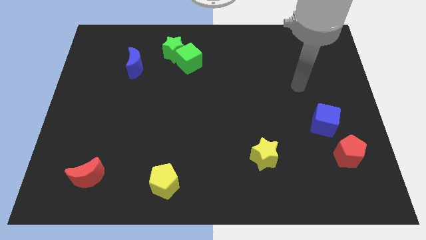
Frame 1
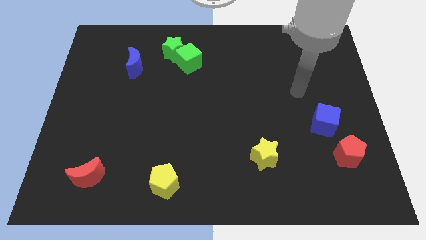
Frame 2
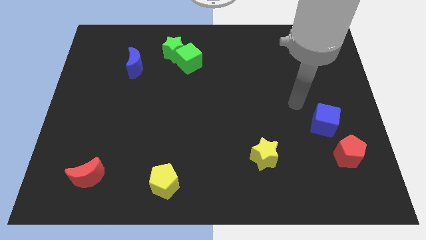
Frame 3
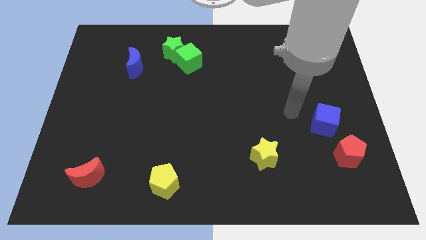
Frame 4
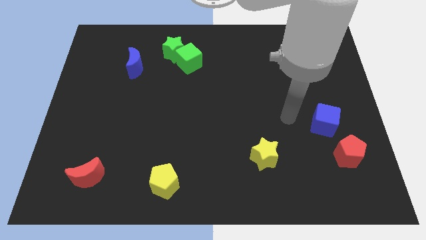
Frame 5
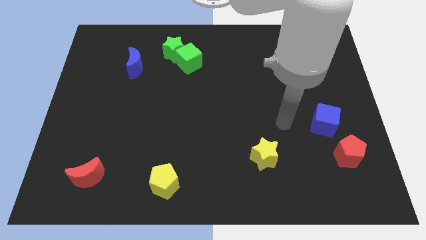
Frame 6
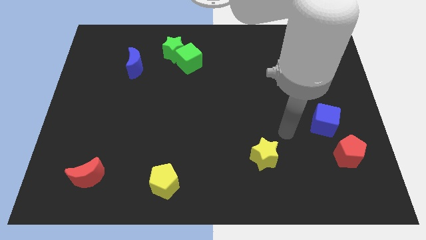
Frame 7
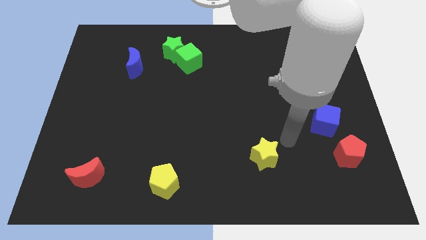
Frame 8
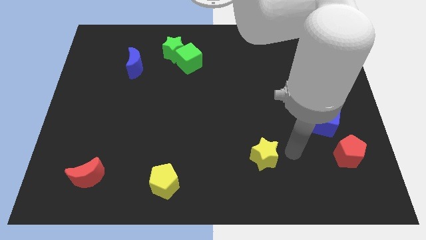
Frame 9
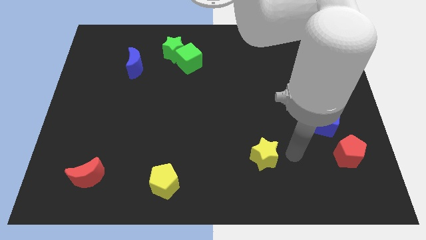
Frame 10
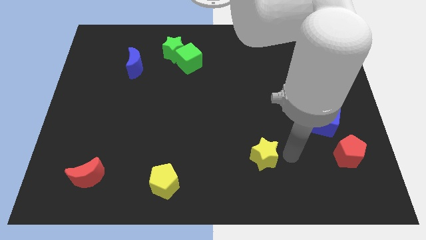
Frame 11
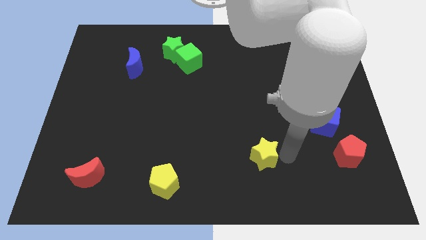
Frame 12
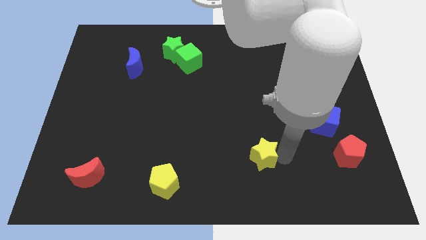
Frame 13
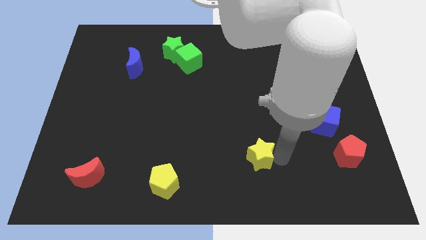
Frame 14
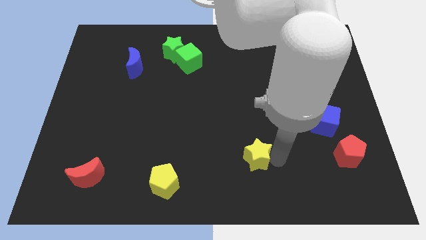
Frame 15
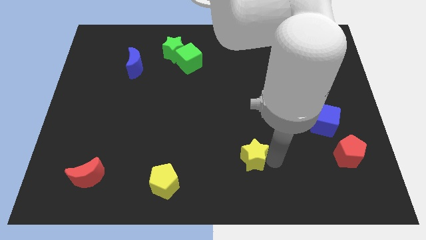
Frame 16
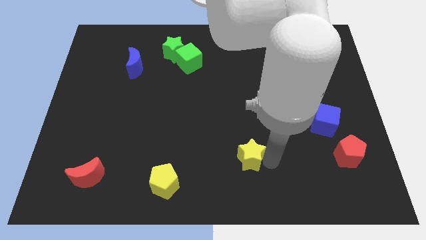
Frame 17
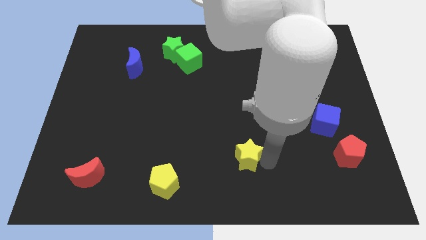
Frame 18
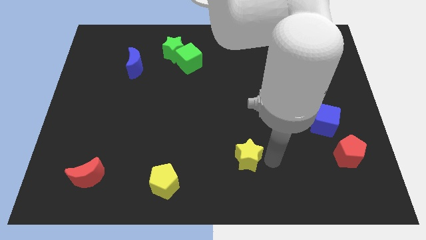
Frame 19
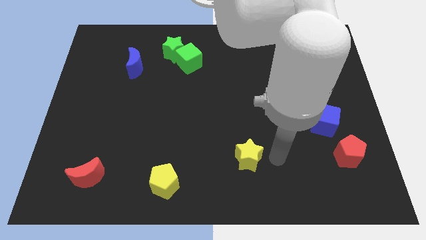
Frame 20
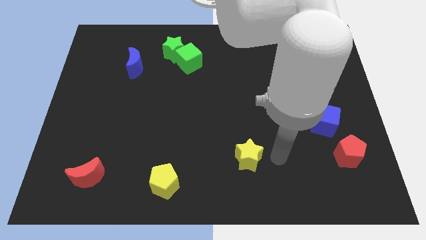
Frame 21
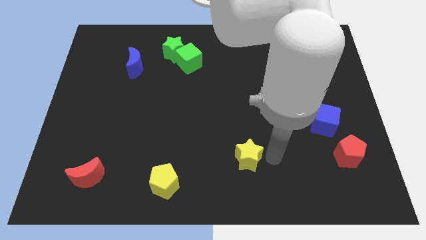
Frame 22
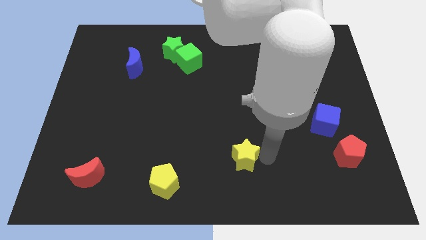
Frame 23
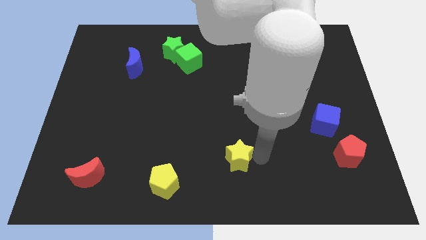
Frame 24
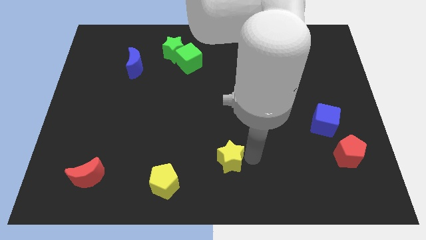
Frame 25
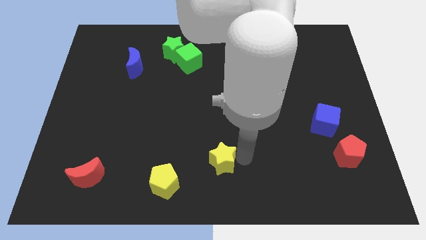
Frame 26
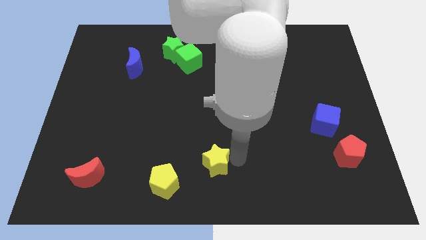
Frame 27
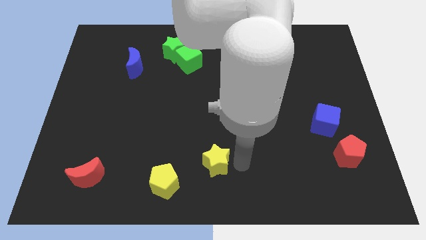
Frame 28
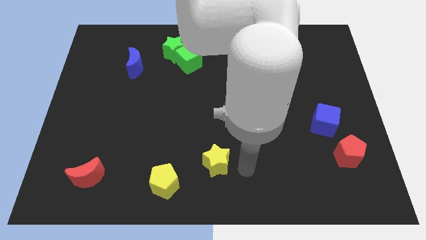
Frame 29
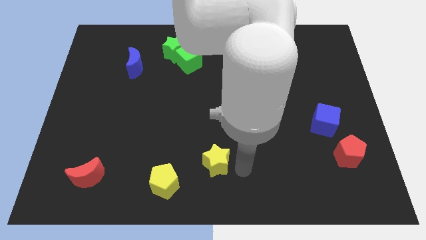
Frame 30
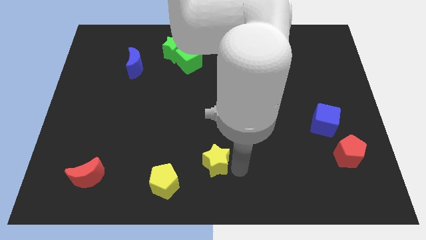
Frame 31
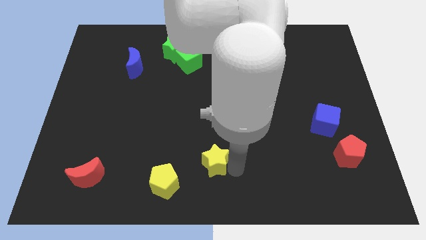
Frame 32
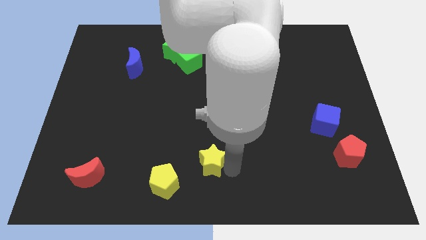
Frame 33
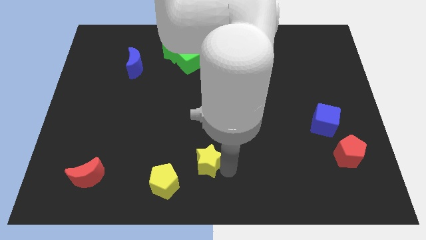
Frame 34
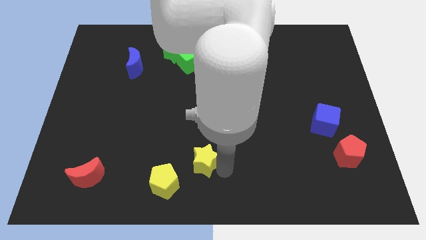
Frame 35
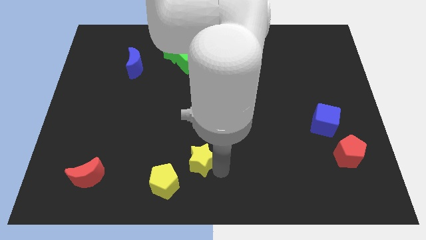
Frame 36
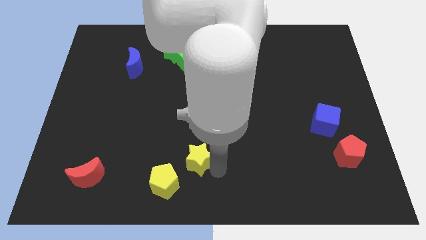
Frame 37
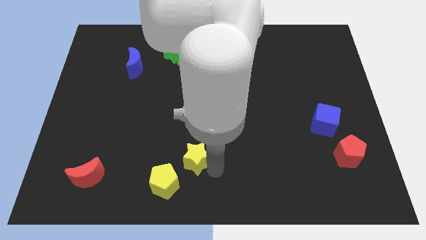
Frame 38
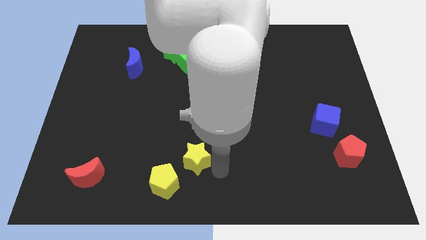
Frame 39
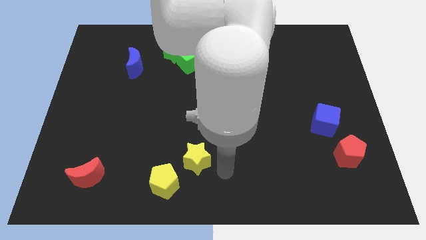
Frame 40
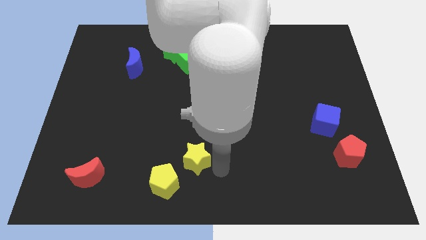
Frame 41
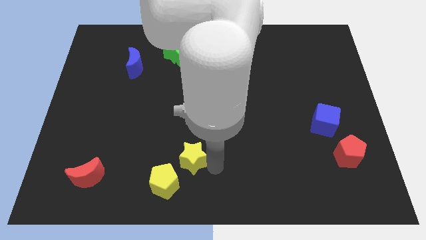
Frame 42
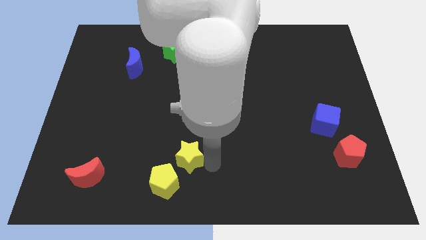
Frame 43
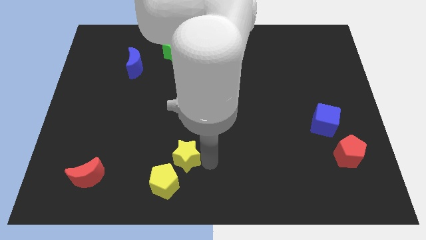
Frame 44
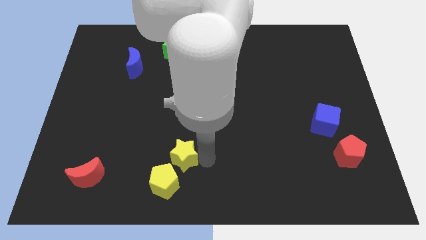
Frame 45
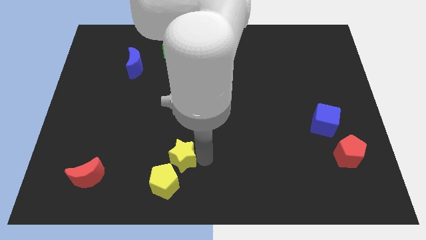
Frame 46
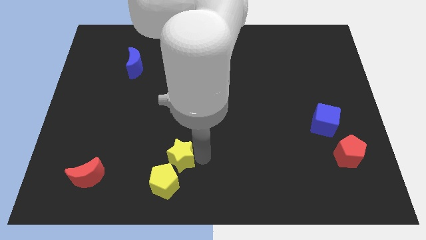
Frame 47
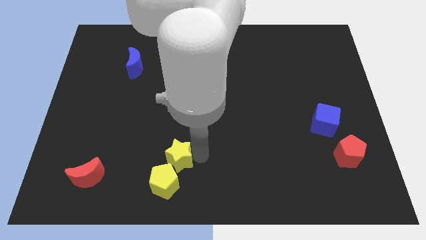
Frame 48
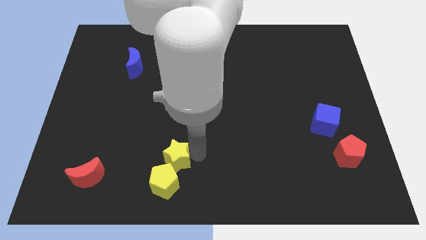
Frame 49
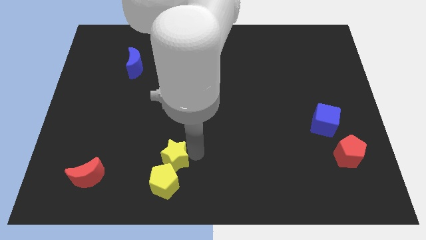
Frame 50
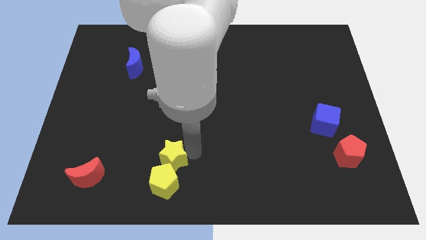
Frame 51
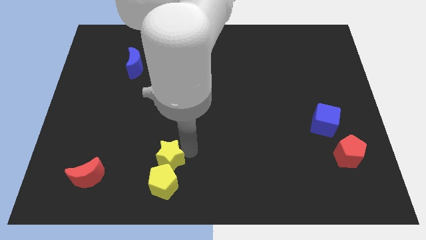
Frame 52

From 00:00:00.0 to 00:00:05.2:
push the yellow star to the left

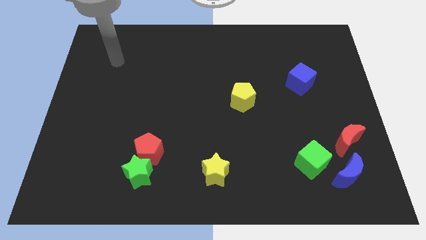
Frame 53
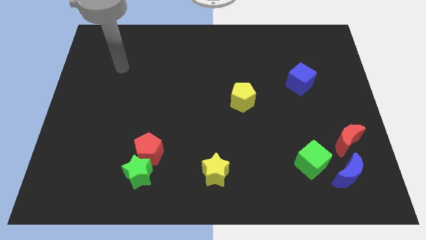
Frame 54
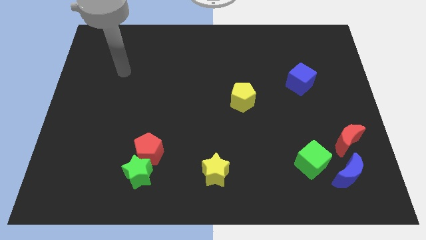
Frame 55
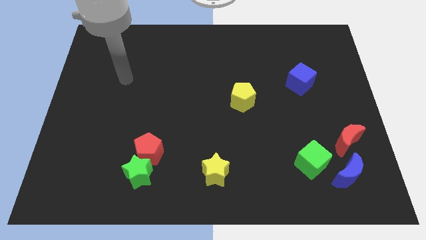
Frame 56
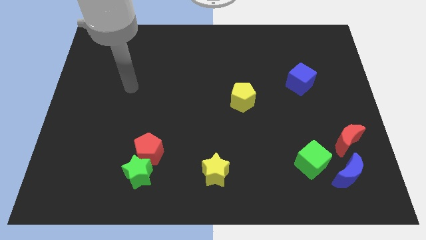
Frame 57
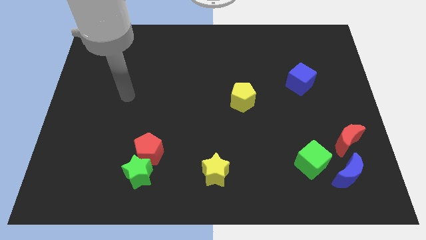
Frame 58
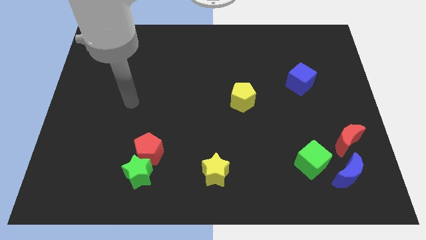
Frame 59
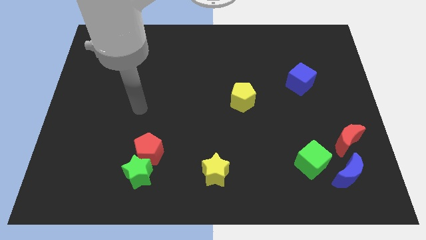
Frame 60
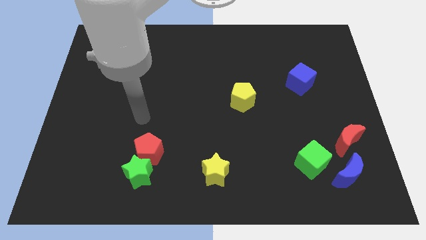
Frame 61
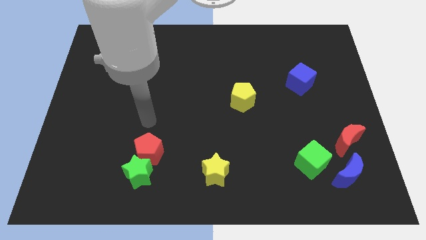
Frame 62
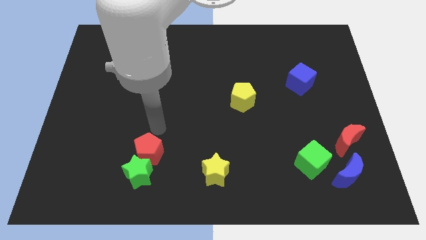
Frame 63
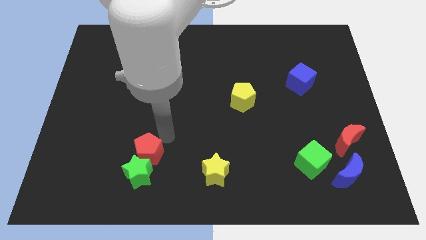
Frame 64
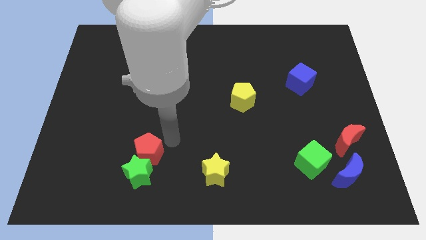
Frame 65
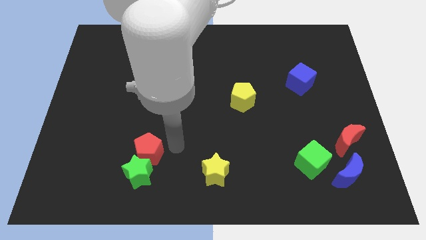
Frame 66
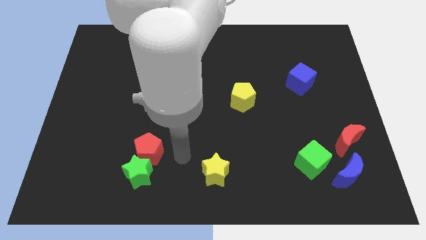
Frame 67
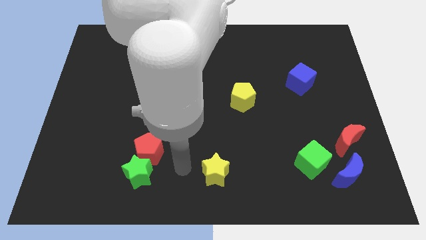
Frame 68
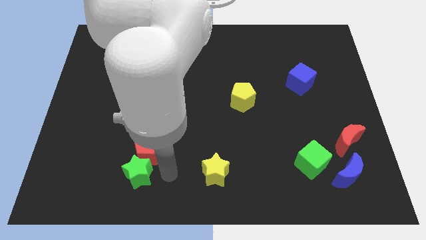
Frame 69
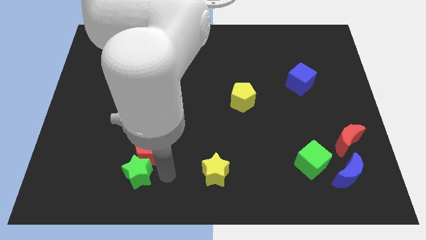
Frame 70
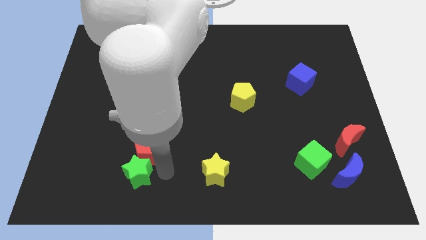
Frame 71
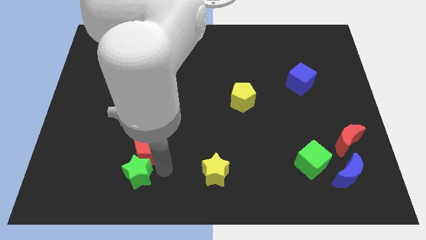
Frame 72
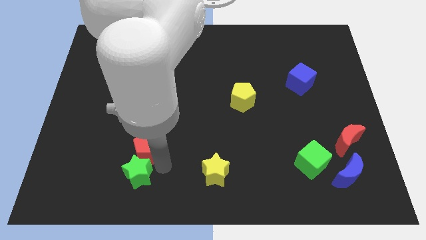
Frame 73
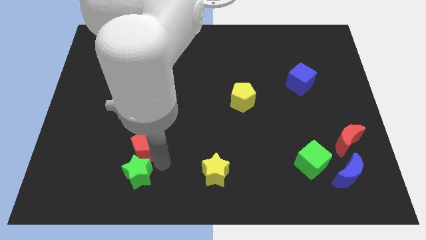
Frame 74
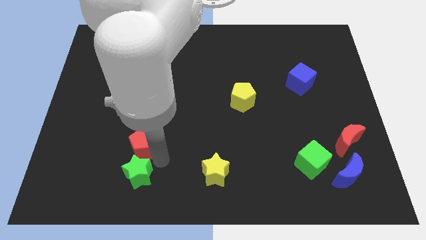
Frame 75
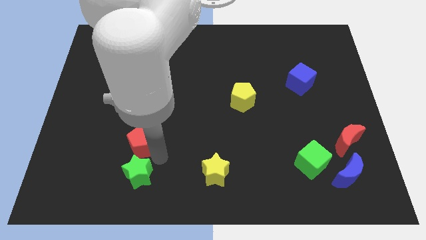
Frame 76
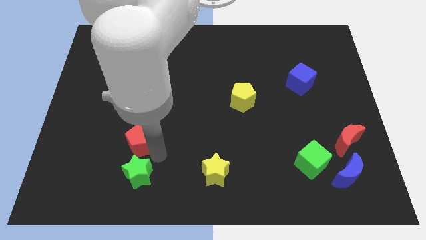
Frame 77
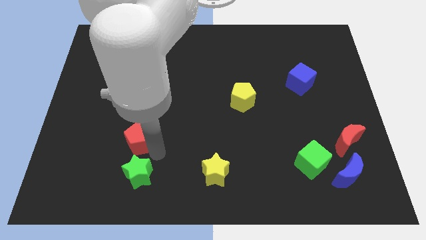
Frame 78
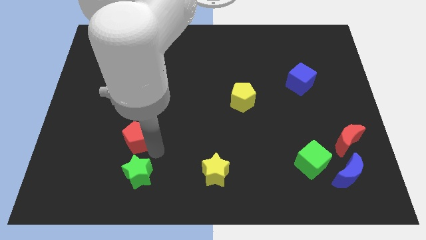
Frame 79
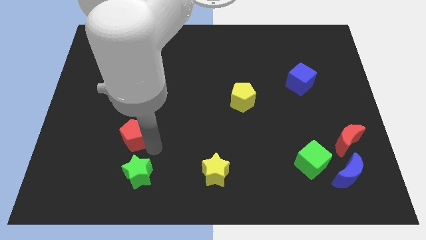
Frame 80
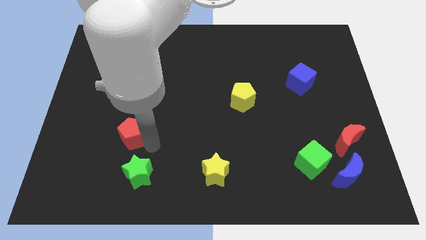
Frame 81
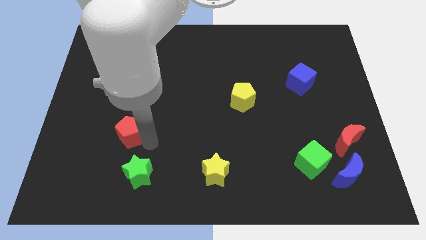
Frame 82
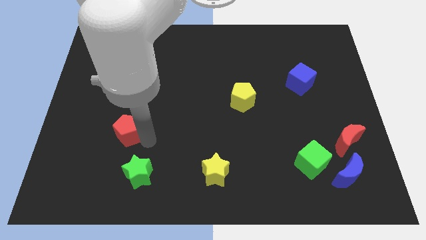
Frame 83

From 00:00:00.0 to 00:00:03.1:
move the red pentagon a little upwards and to the left diagonally
